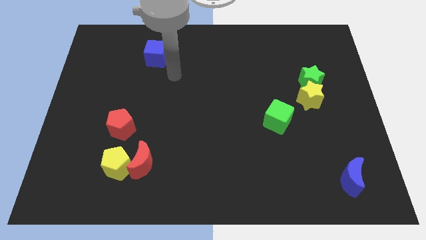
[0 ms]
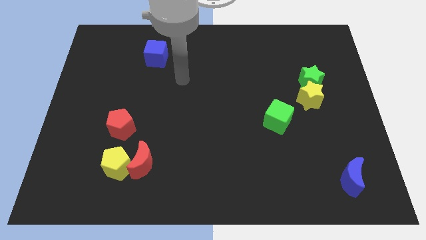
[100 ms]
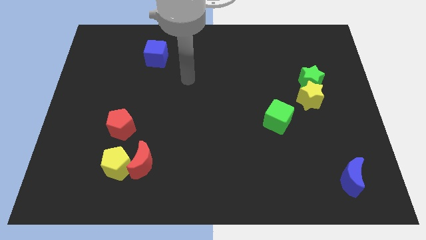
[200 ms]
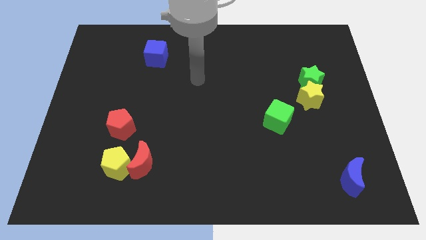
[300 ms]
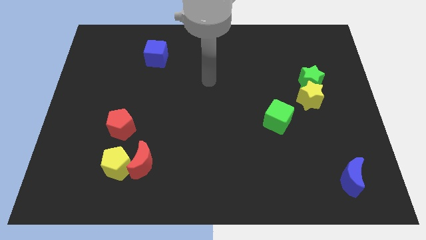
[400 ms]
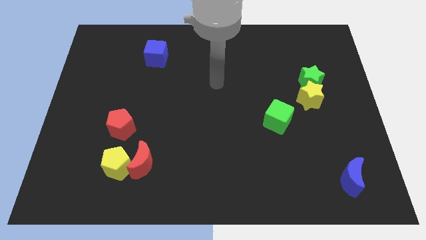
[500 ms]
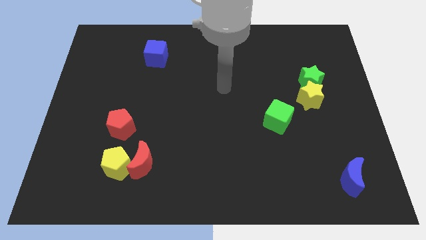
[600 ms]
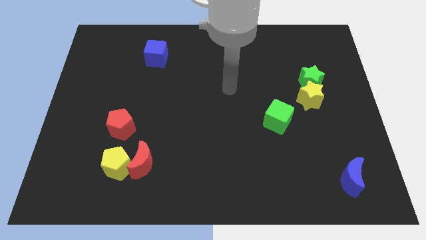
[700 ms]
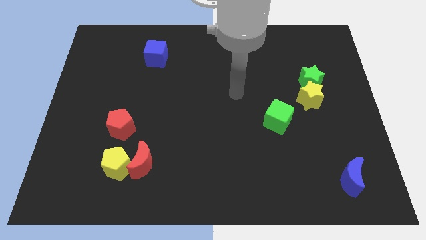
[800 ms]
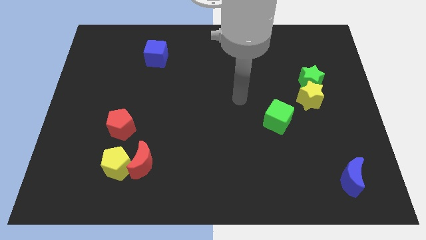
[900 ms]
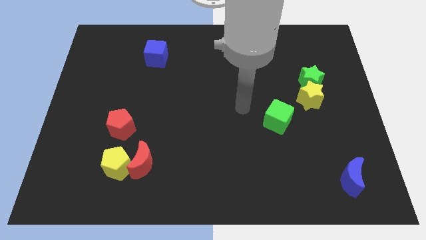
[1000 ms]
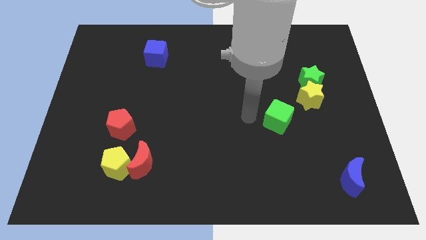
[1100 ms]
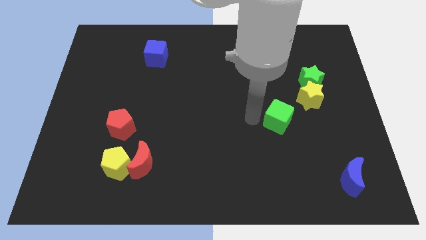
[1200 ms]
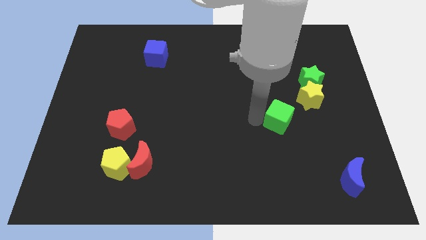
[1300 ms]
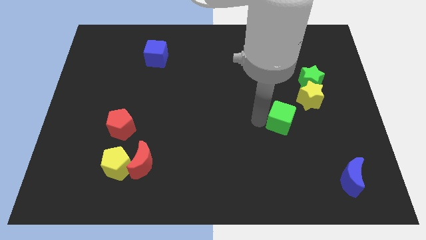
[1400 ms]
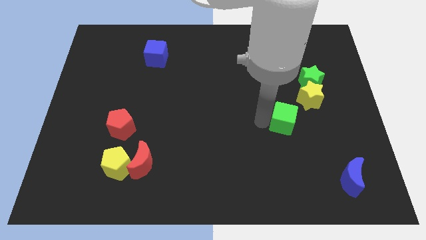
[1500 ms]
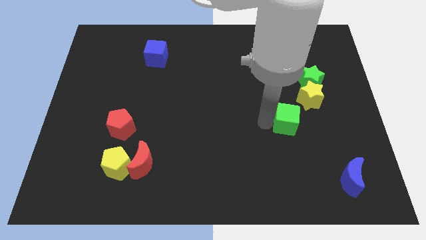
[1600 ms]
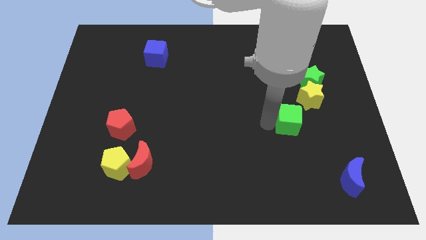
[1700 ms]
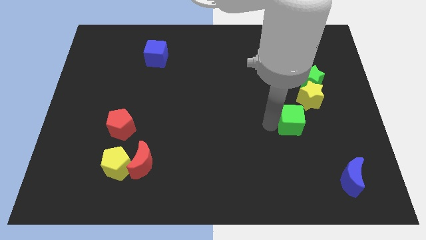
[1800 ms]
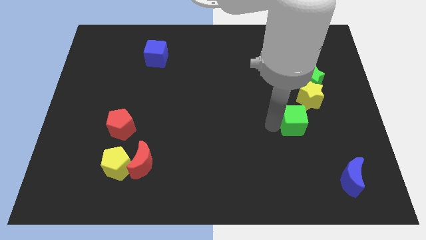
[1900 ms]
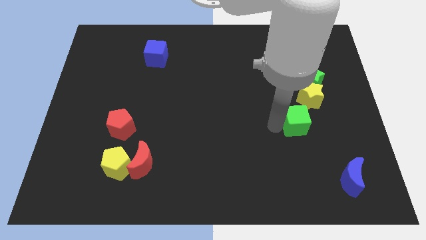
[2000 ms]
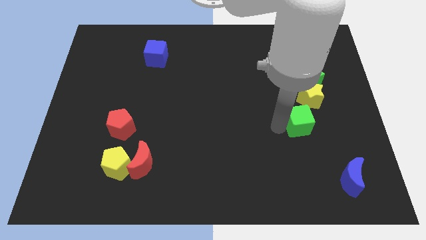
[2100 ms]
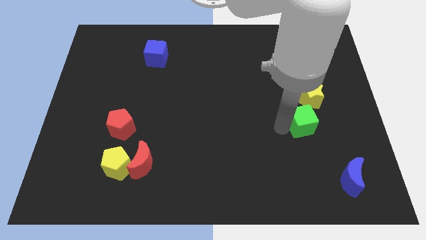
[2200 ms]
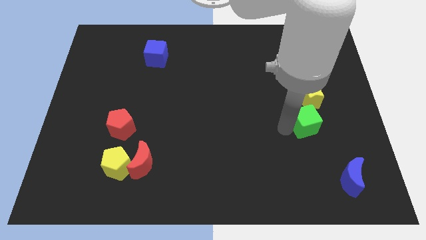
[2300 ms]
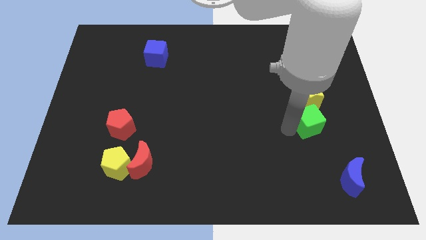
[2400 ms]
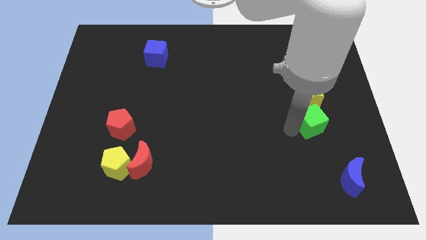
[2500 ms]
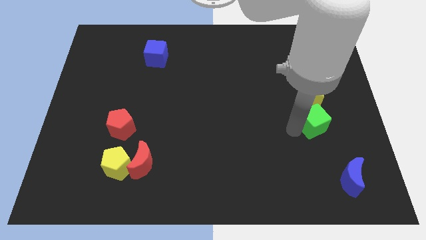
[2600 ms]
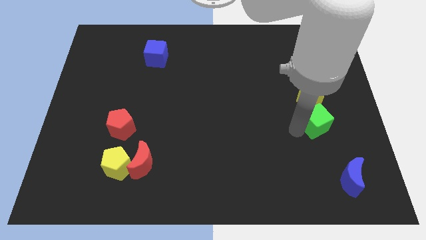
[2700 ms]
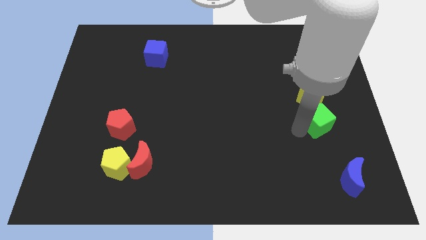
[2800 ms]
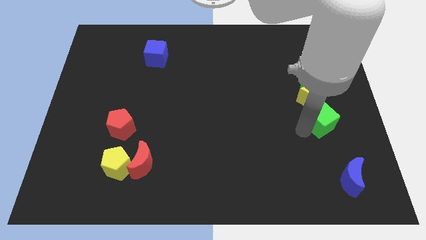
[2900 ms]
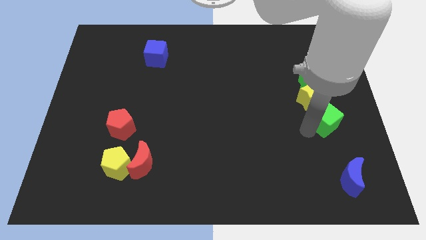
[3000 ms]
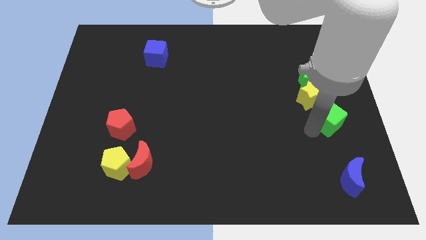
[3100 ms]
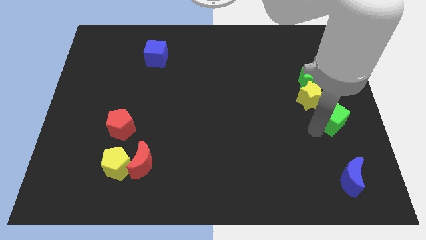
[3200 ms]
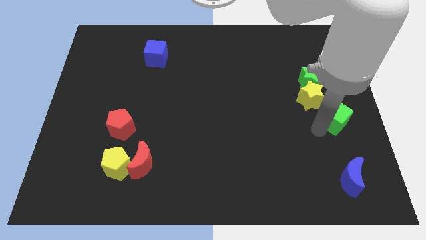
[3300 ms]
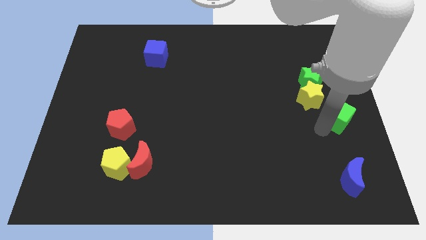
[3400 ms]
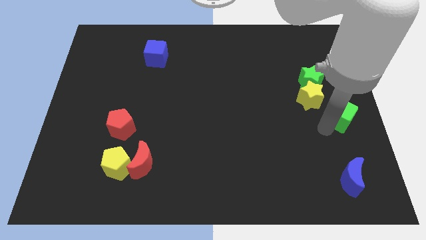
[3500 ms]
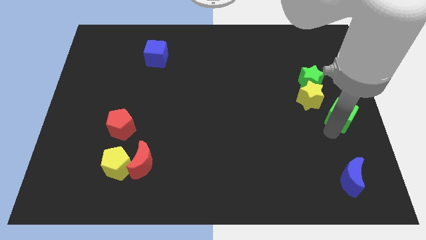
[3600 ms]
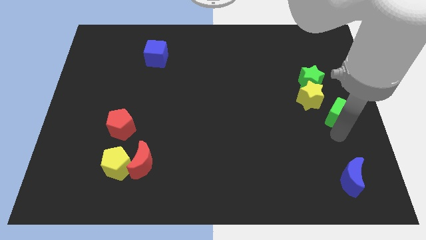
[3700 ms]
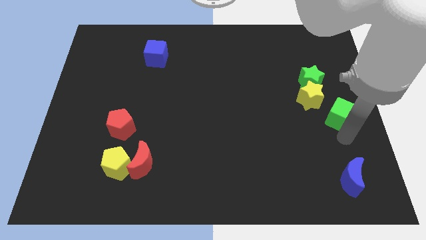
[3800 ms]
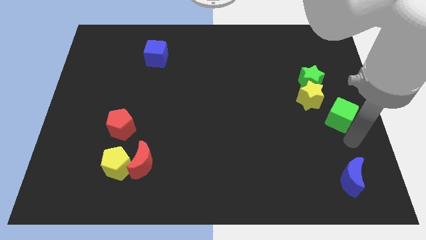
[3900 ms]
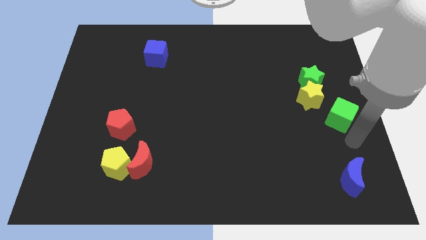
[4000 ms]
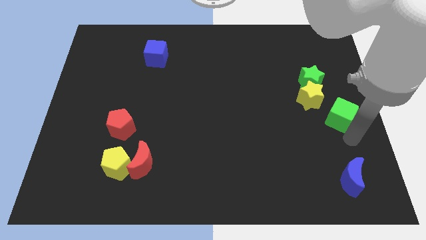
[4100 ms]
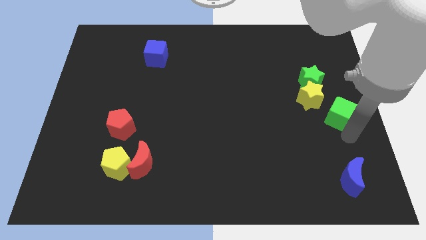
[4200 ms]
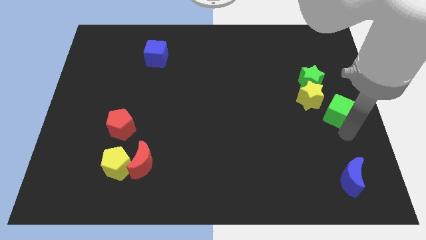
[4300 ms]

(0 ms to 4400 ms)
push the green cube a little upwards and to the right

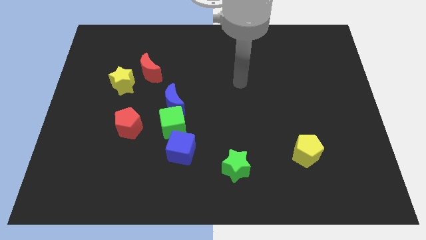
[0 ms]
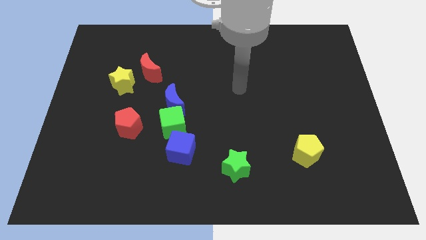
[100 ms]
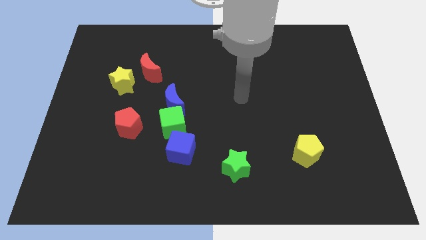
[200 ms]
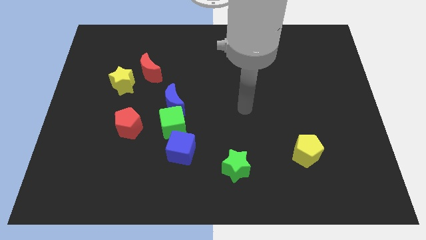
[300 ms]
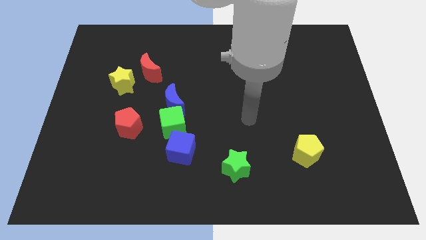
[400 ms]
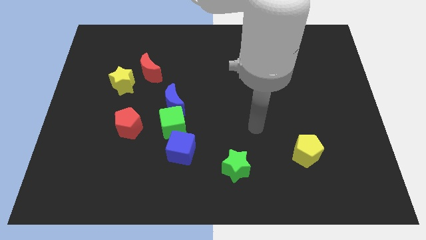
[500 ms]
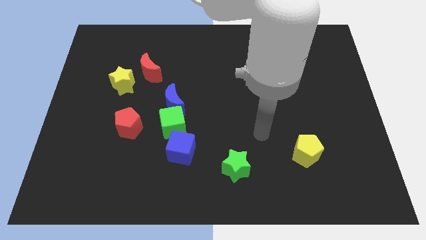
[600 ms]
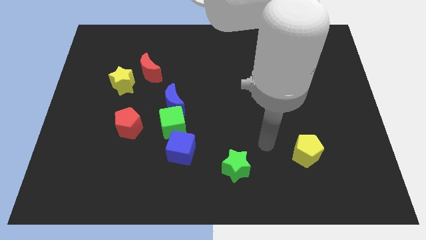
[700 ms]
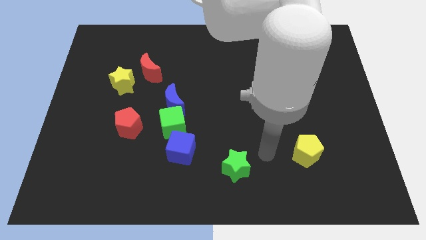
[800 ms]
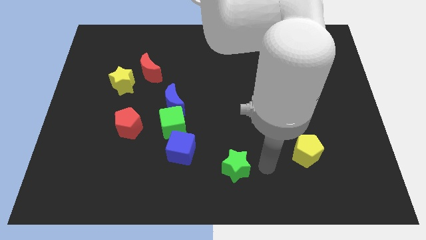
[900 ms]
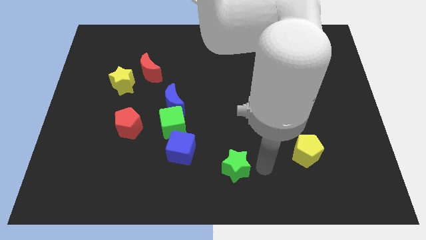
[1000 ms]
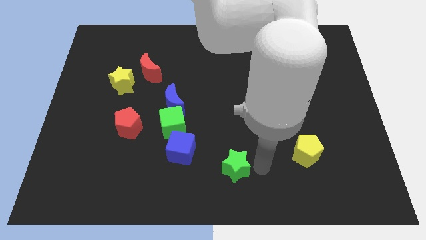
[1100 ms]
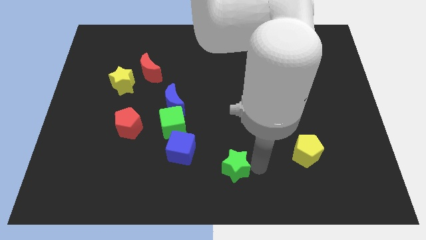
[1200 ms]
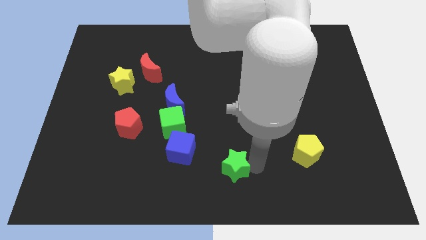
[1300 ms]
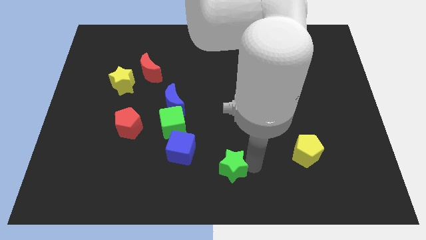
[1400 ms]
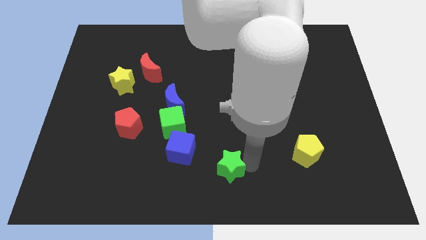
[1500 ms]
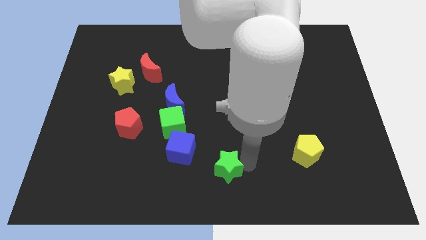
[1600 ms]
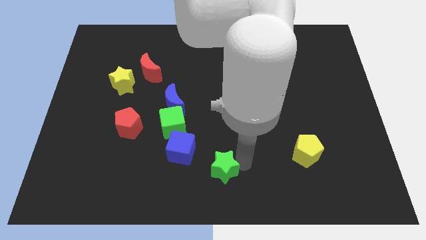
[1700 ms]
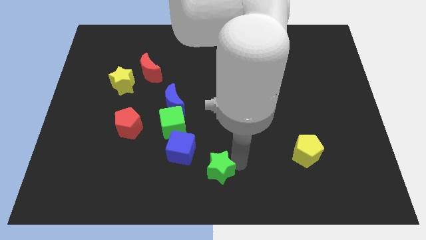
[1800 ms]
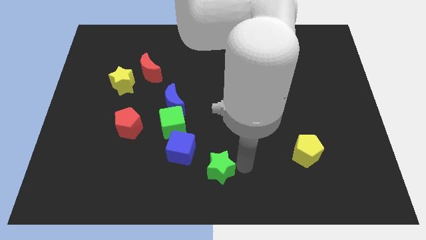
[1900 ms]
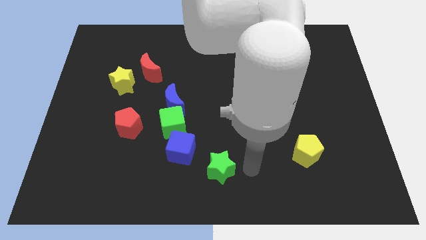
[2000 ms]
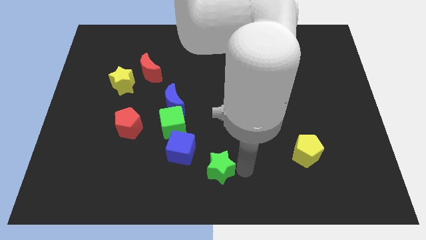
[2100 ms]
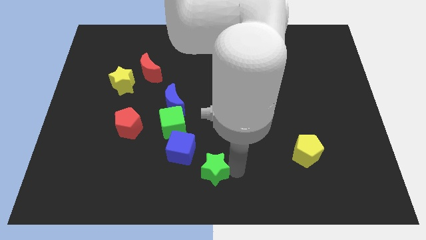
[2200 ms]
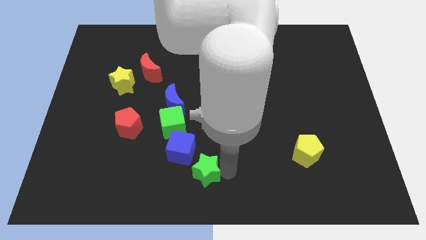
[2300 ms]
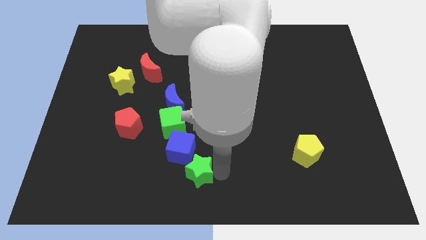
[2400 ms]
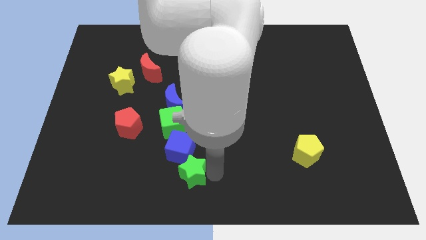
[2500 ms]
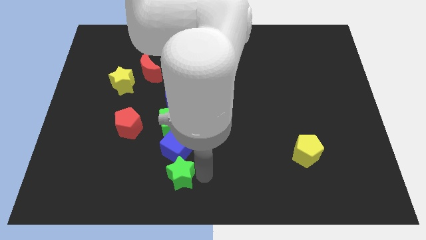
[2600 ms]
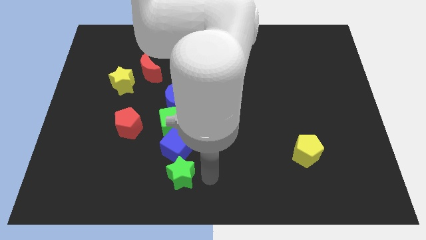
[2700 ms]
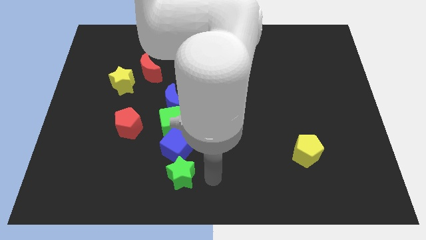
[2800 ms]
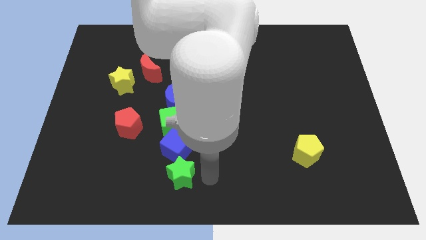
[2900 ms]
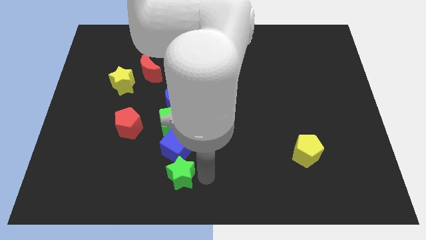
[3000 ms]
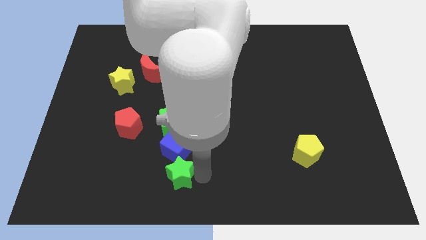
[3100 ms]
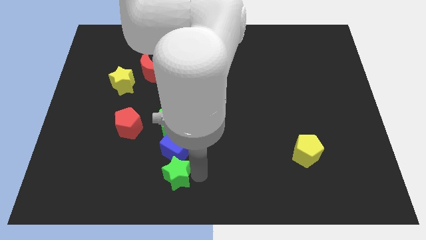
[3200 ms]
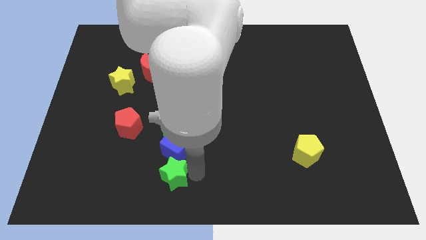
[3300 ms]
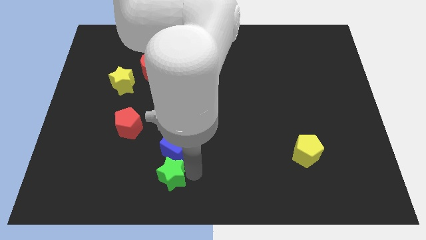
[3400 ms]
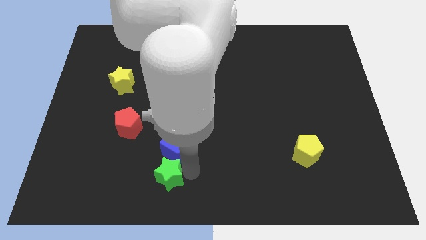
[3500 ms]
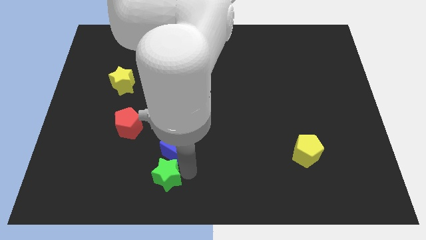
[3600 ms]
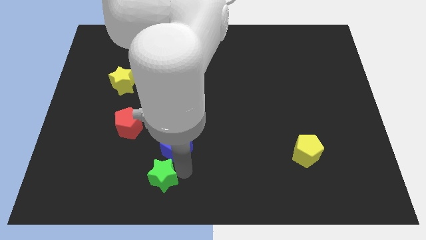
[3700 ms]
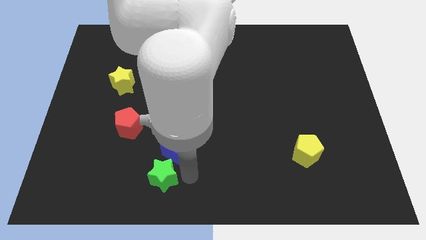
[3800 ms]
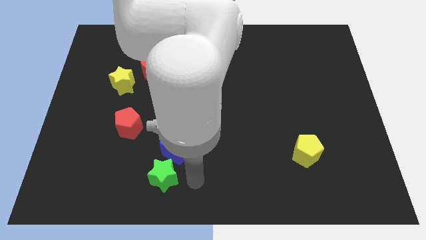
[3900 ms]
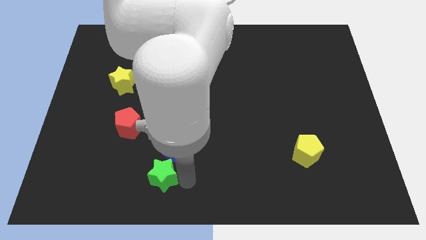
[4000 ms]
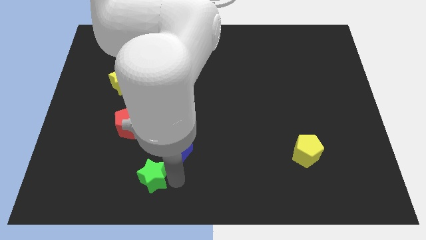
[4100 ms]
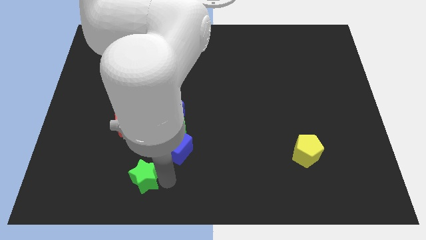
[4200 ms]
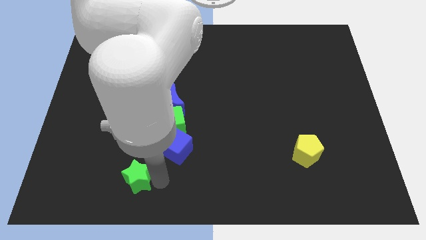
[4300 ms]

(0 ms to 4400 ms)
move the green star to the left

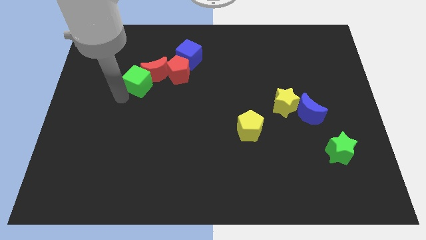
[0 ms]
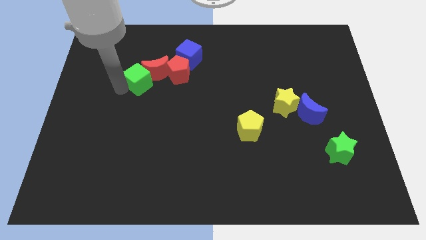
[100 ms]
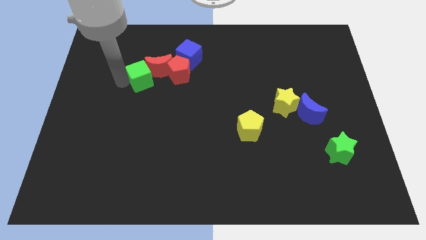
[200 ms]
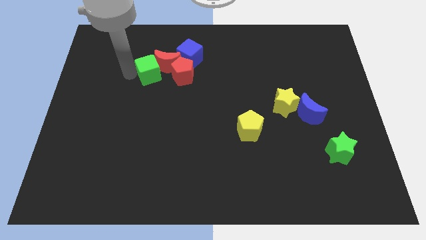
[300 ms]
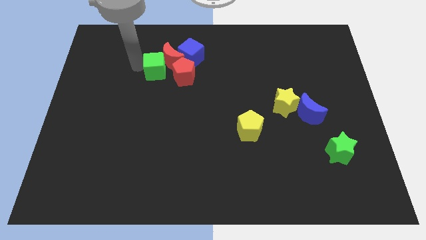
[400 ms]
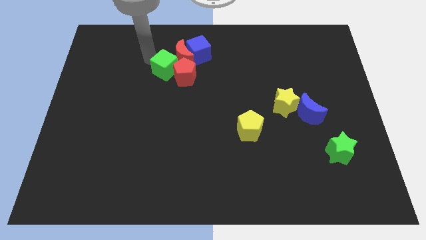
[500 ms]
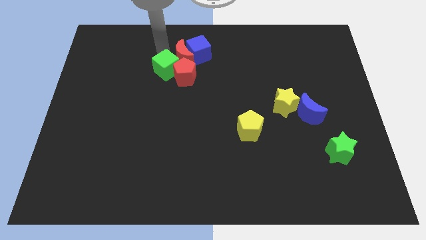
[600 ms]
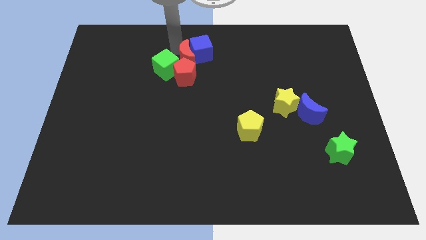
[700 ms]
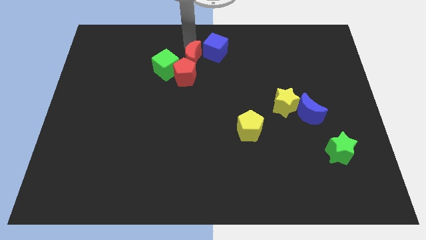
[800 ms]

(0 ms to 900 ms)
slightly slide the red moon to the right
